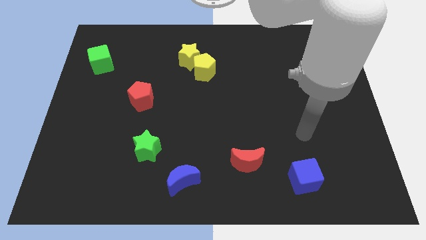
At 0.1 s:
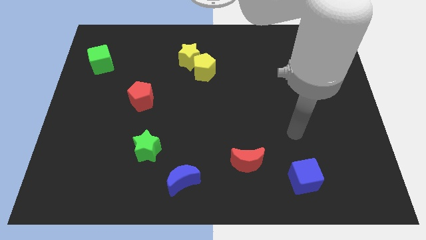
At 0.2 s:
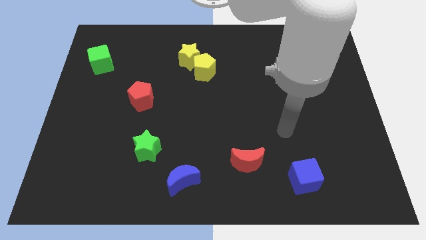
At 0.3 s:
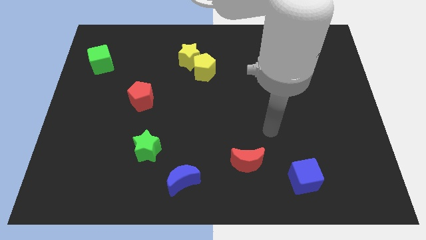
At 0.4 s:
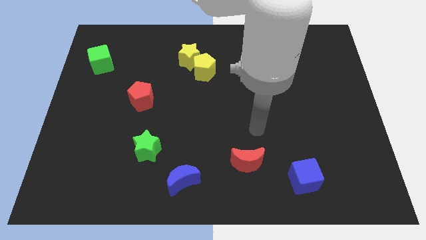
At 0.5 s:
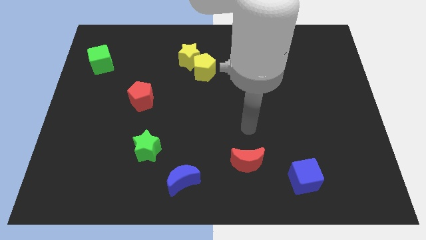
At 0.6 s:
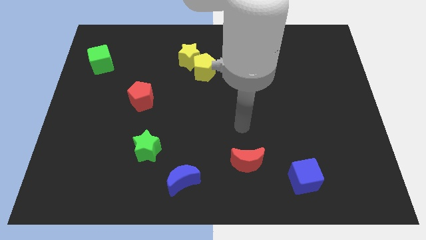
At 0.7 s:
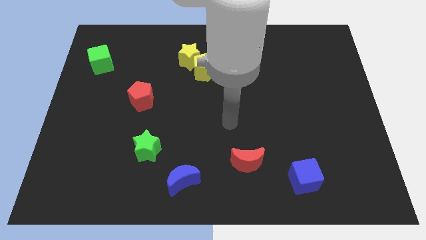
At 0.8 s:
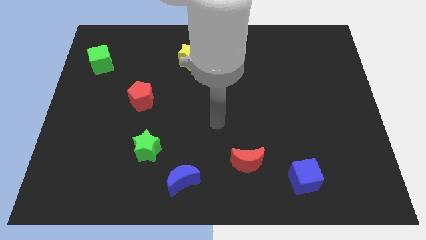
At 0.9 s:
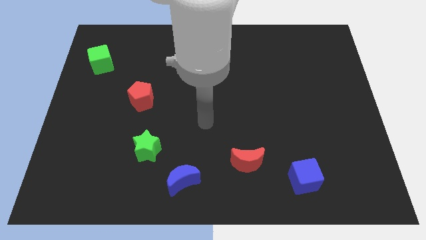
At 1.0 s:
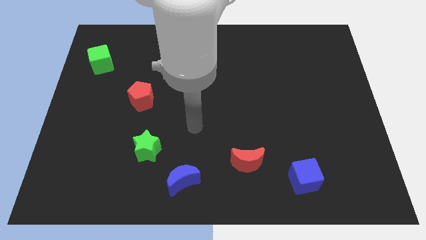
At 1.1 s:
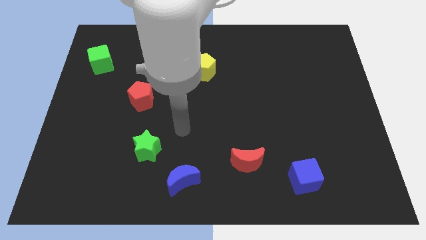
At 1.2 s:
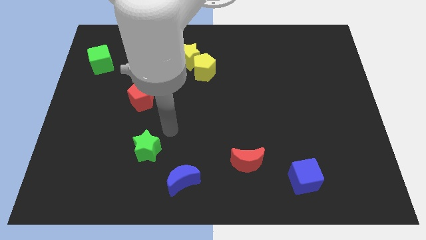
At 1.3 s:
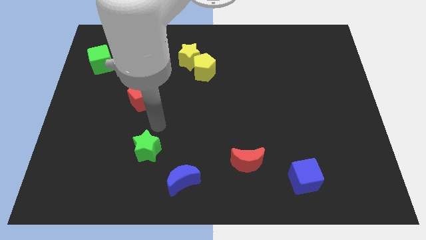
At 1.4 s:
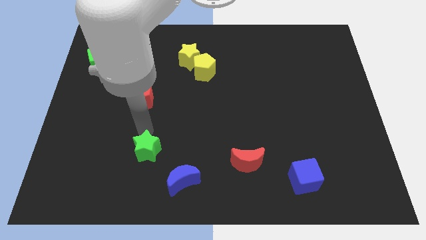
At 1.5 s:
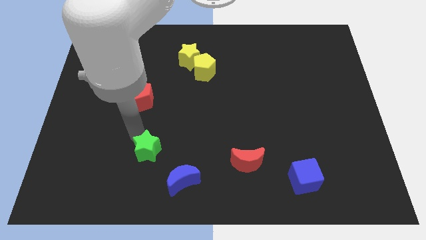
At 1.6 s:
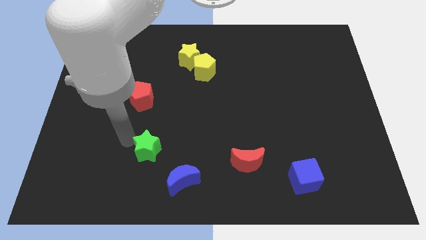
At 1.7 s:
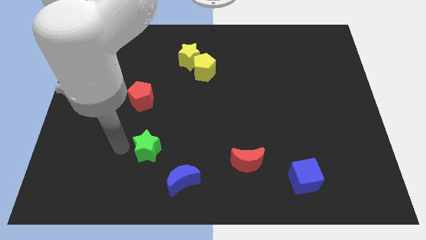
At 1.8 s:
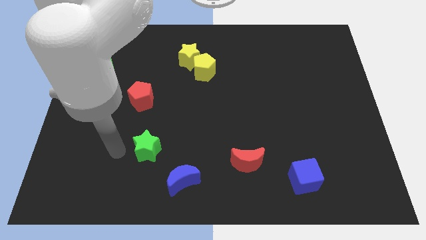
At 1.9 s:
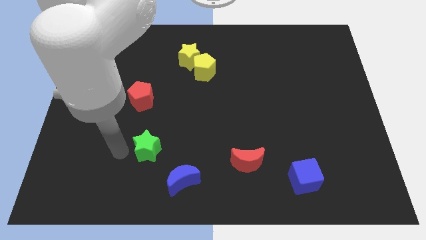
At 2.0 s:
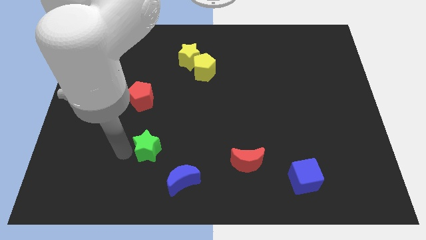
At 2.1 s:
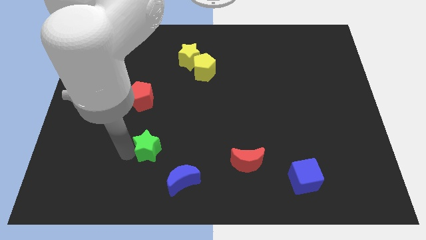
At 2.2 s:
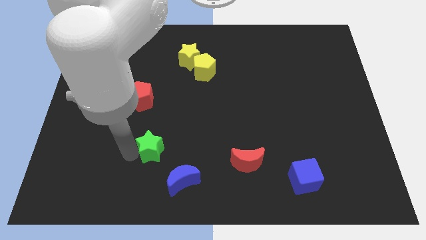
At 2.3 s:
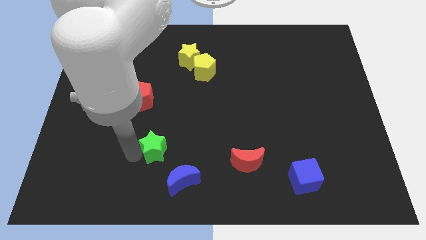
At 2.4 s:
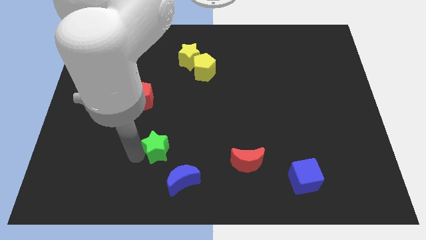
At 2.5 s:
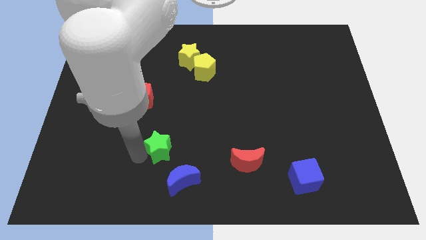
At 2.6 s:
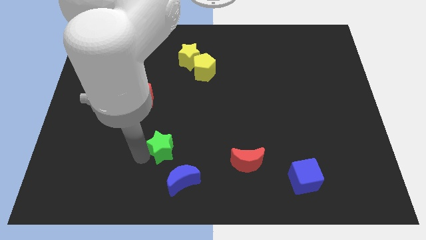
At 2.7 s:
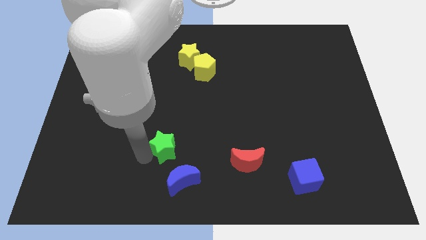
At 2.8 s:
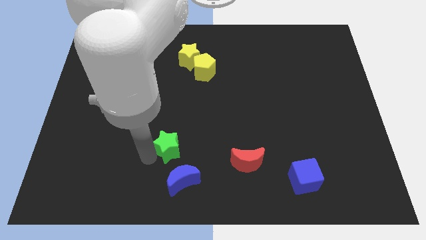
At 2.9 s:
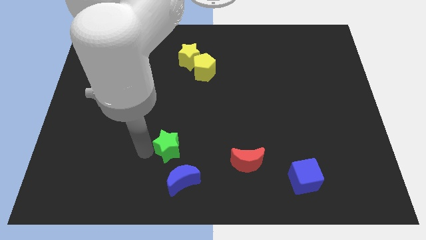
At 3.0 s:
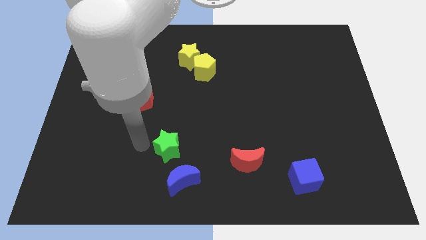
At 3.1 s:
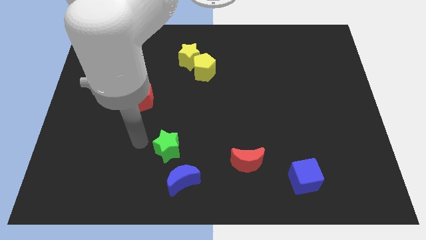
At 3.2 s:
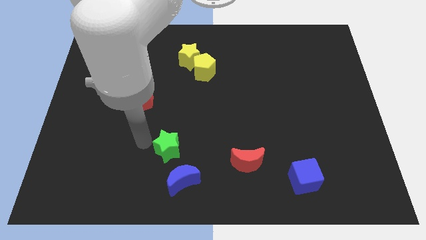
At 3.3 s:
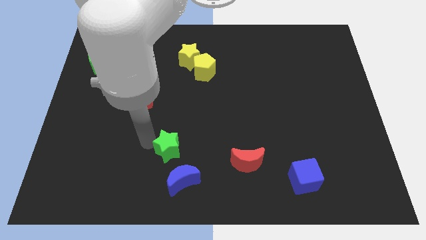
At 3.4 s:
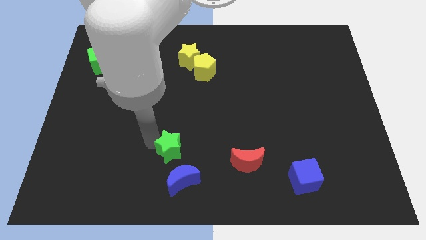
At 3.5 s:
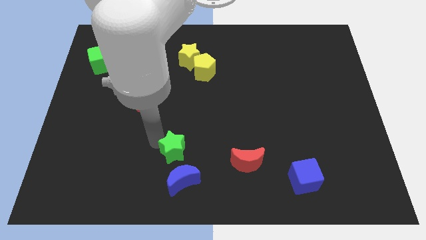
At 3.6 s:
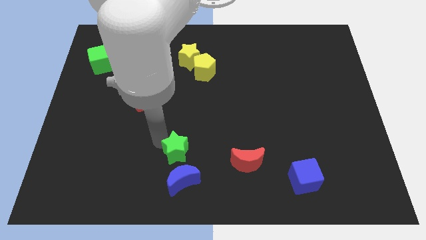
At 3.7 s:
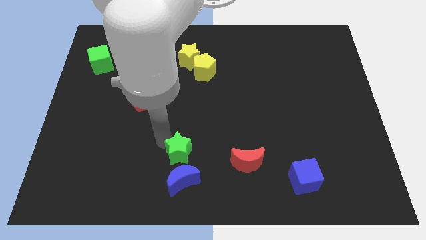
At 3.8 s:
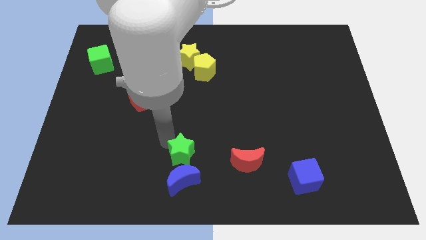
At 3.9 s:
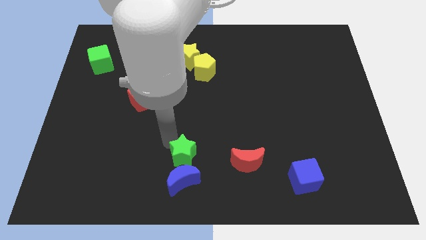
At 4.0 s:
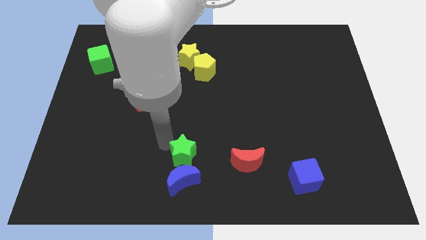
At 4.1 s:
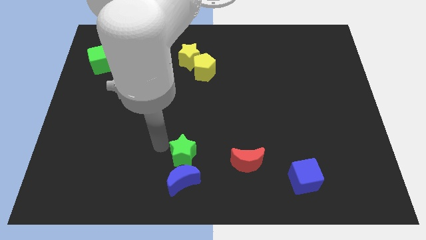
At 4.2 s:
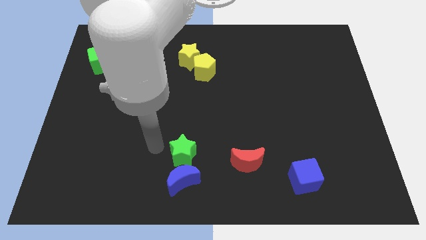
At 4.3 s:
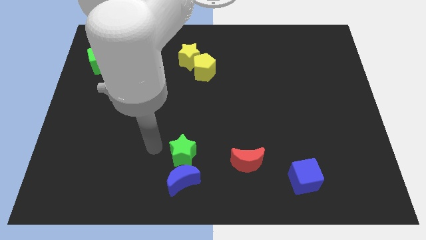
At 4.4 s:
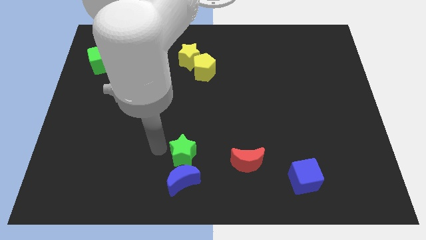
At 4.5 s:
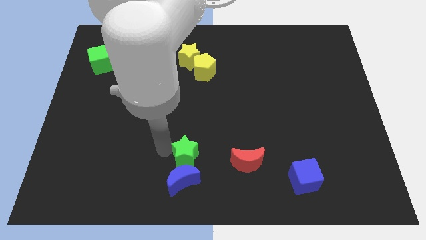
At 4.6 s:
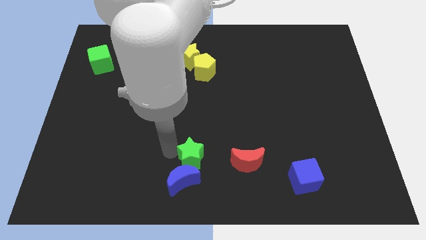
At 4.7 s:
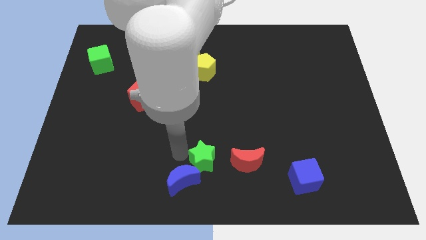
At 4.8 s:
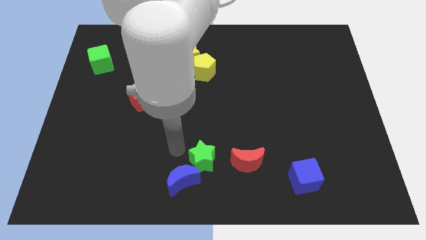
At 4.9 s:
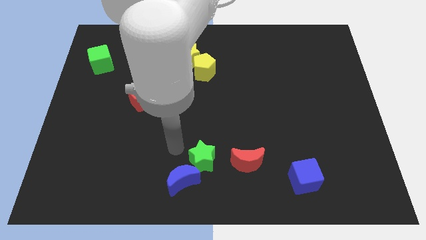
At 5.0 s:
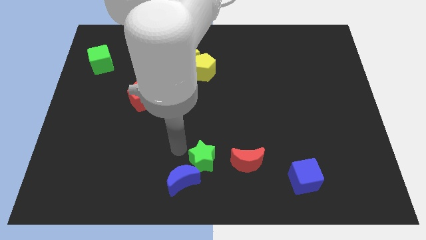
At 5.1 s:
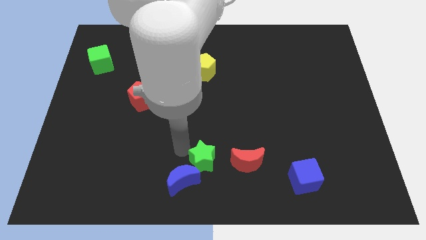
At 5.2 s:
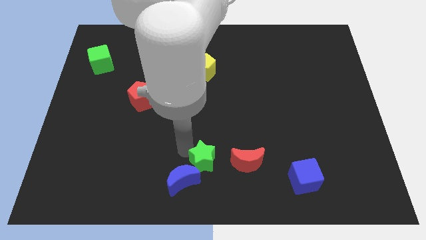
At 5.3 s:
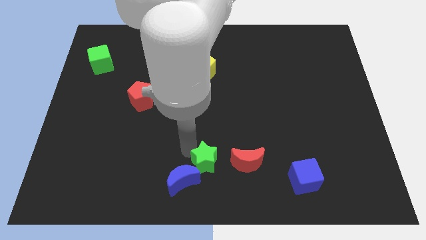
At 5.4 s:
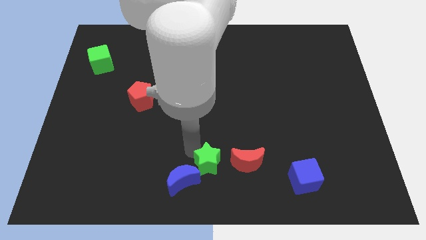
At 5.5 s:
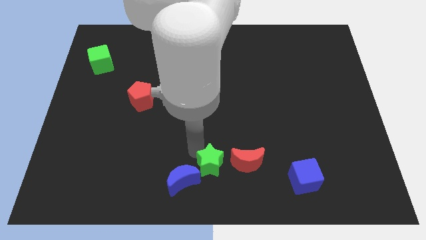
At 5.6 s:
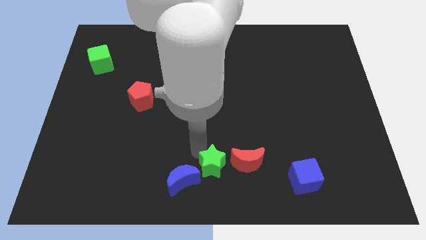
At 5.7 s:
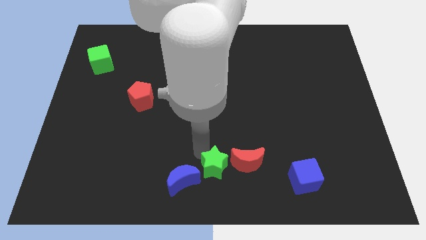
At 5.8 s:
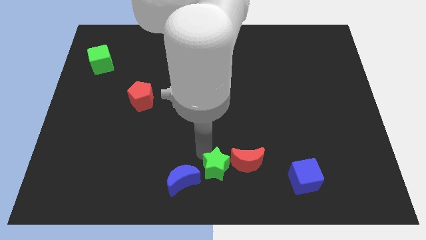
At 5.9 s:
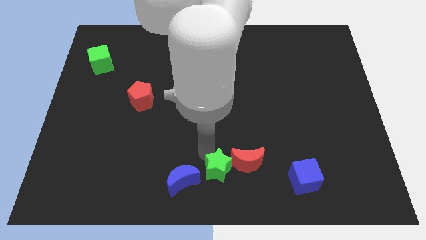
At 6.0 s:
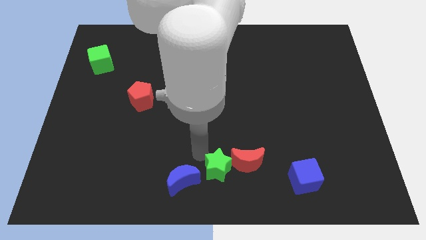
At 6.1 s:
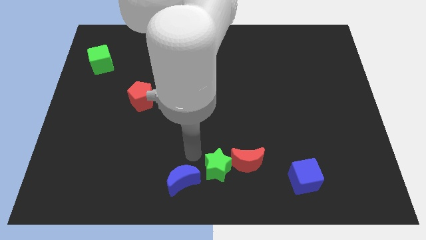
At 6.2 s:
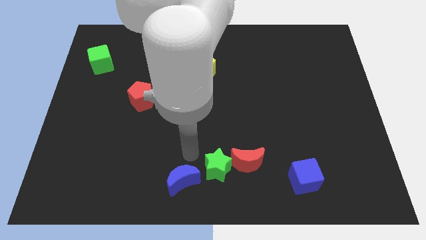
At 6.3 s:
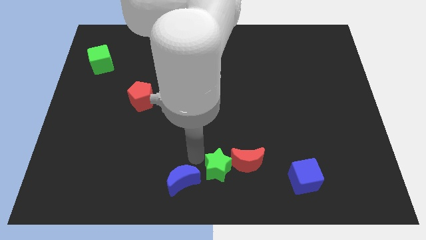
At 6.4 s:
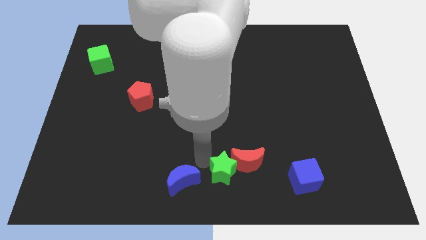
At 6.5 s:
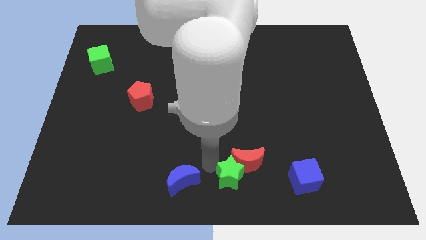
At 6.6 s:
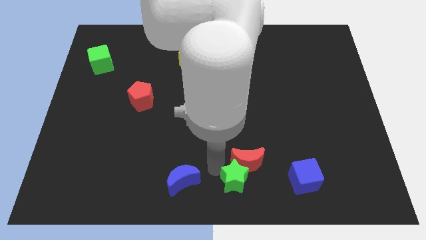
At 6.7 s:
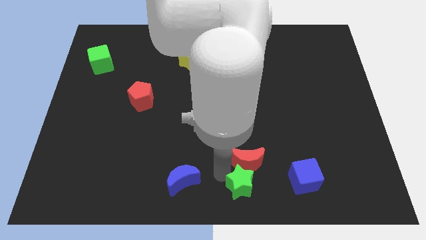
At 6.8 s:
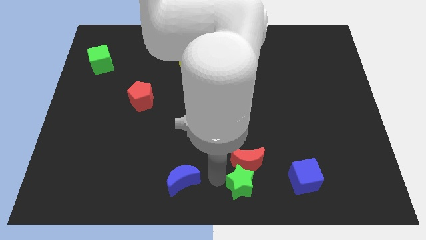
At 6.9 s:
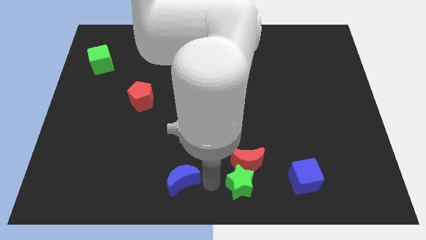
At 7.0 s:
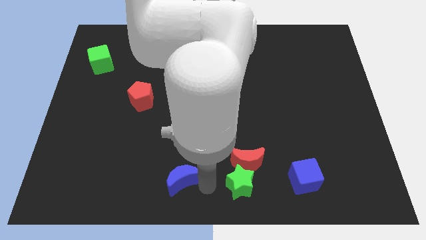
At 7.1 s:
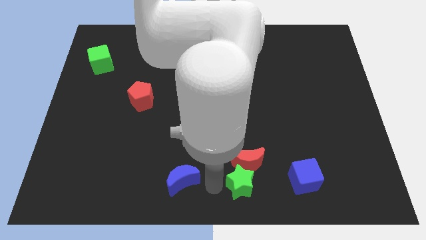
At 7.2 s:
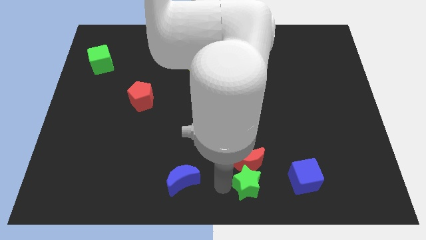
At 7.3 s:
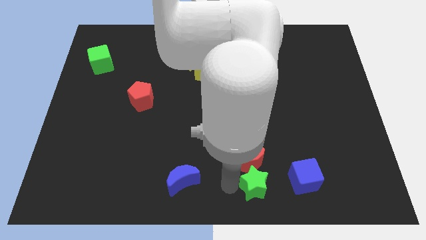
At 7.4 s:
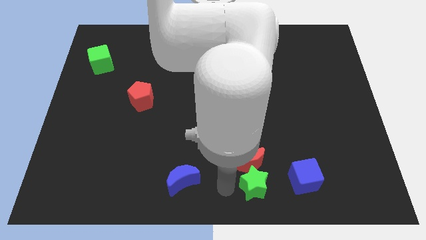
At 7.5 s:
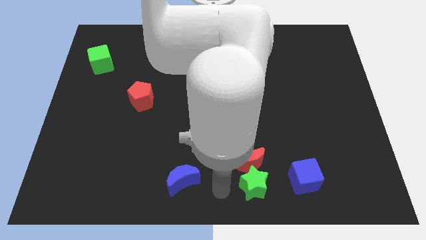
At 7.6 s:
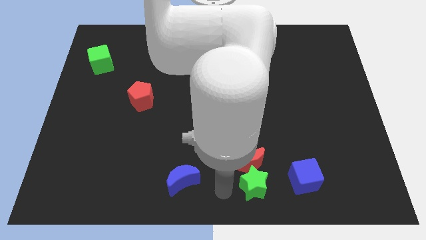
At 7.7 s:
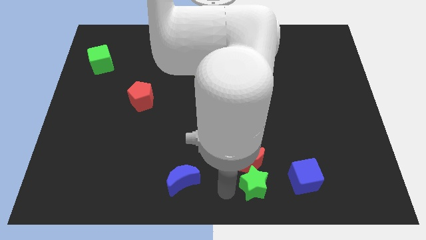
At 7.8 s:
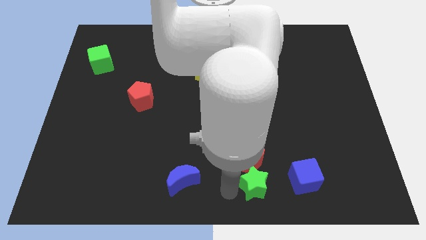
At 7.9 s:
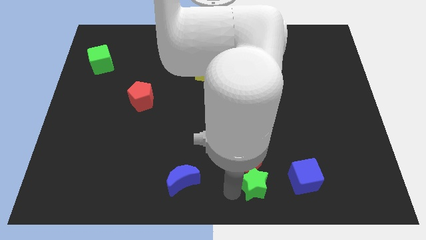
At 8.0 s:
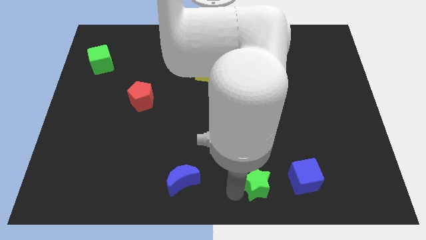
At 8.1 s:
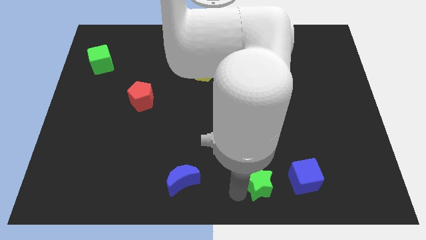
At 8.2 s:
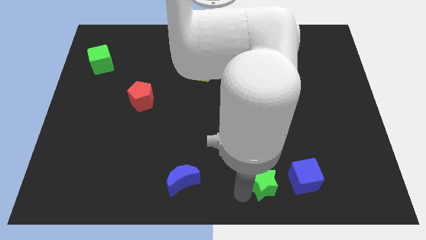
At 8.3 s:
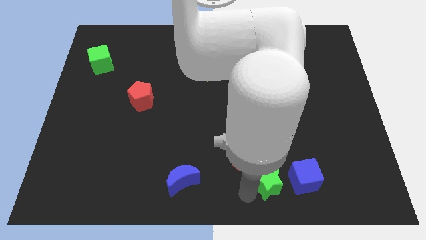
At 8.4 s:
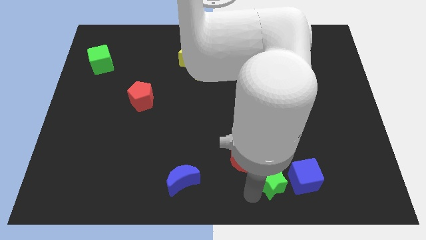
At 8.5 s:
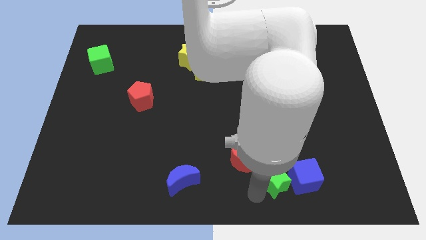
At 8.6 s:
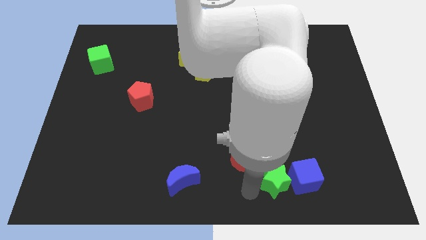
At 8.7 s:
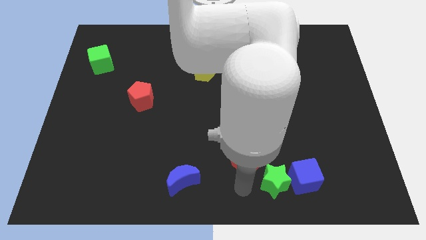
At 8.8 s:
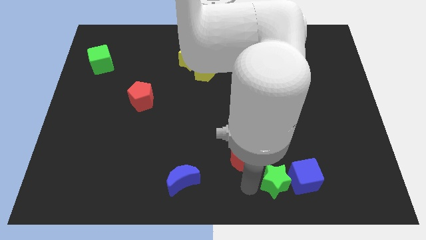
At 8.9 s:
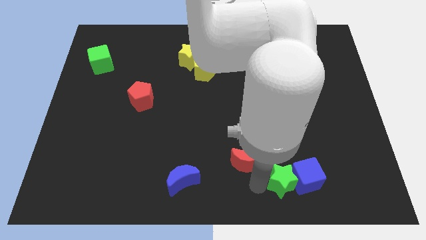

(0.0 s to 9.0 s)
put the green star to the blue cube
